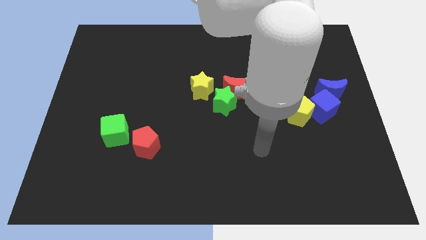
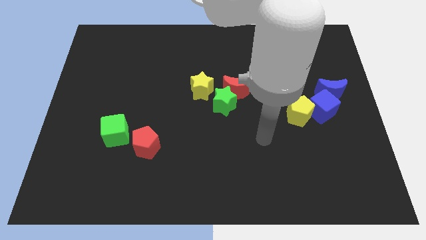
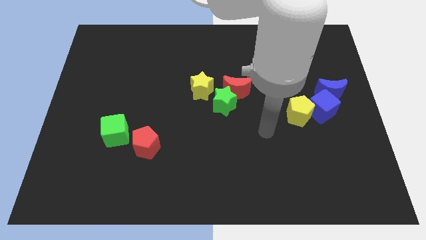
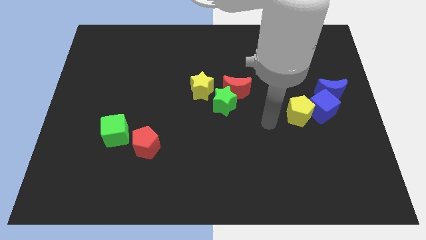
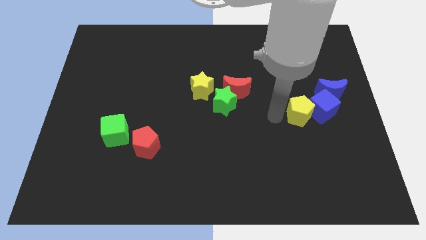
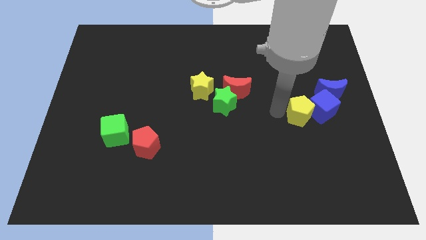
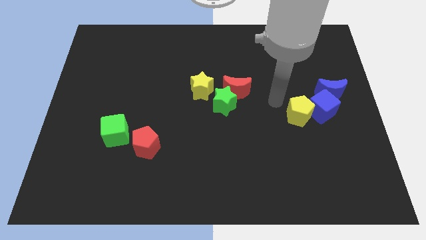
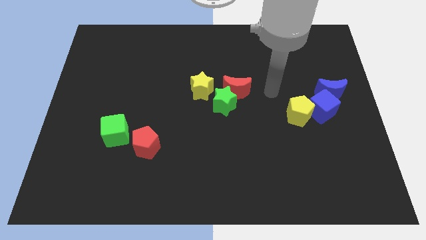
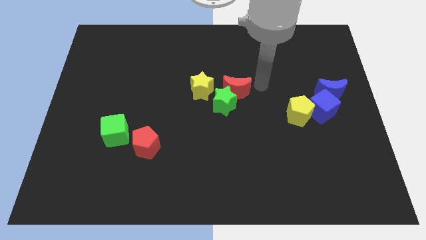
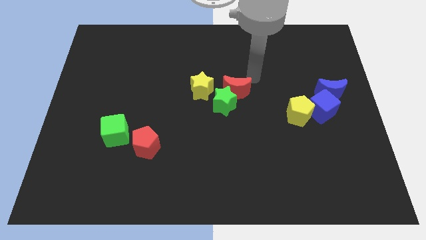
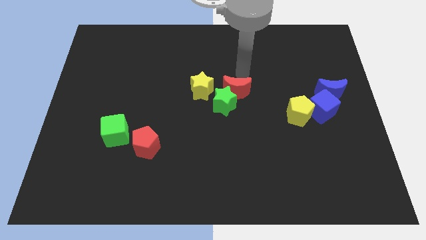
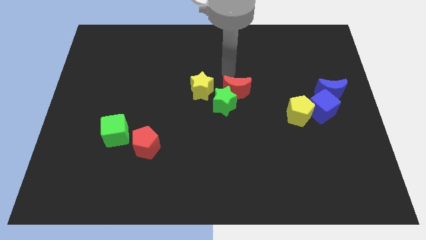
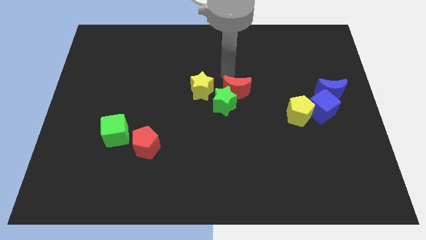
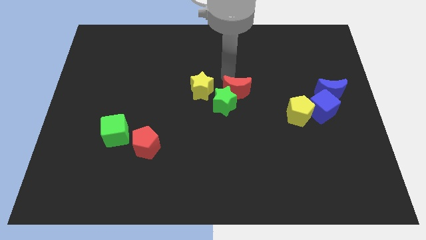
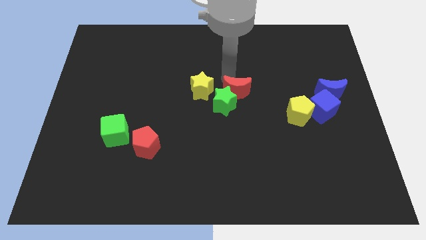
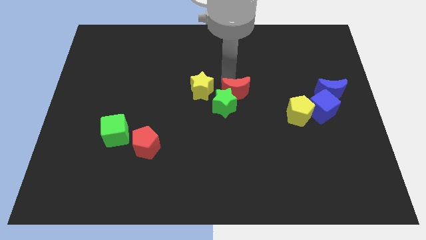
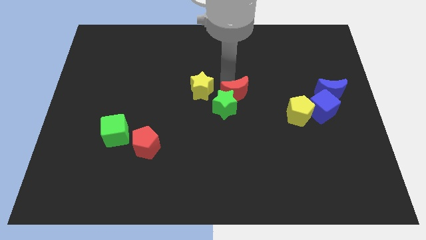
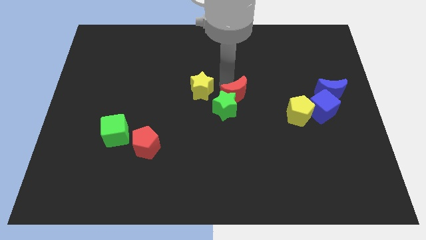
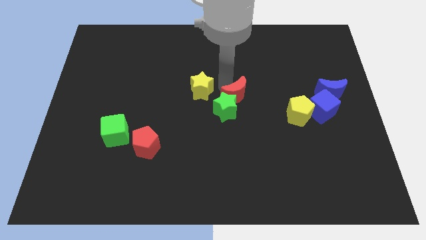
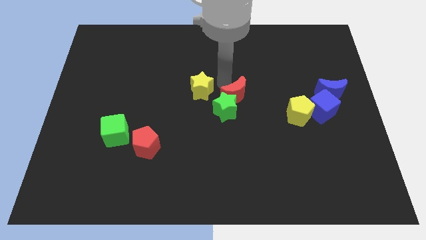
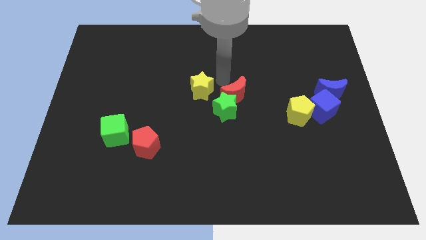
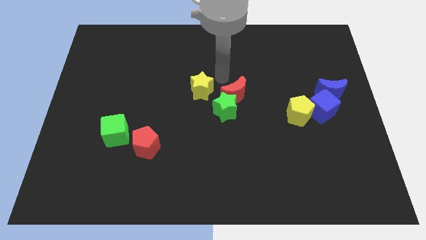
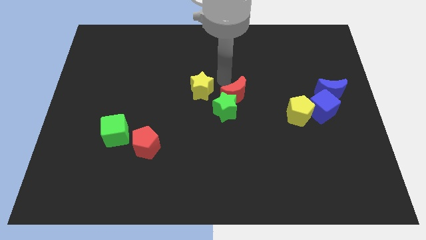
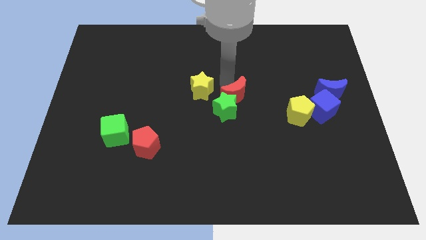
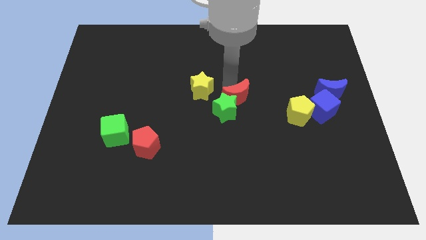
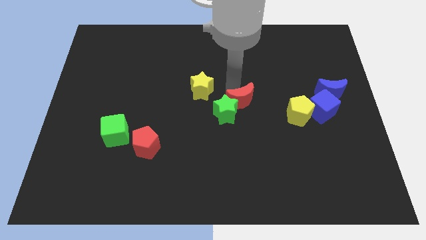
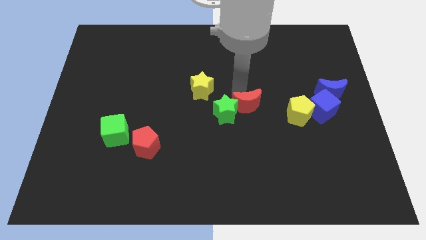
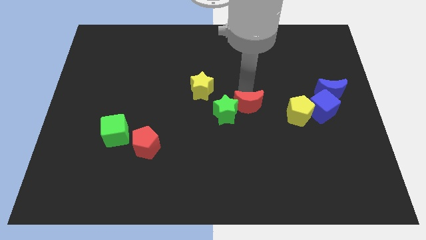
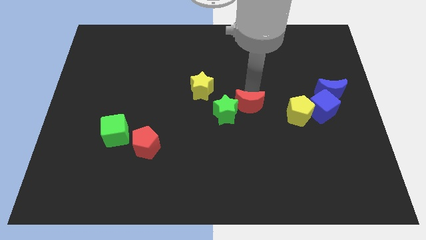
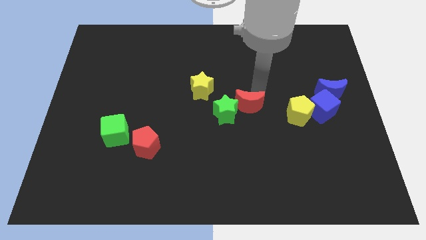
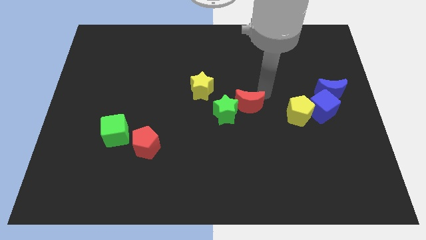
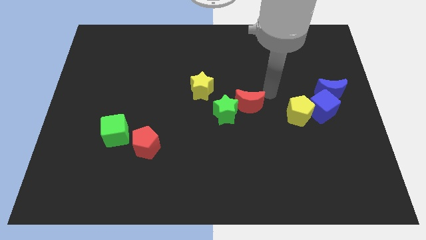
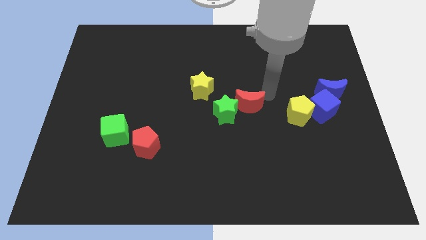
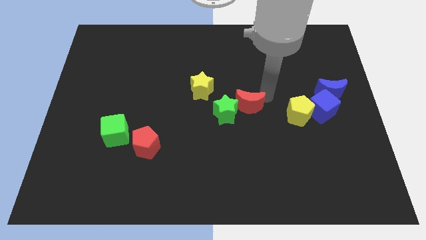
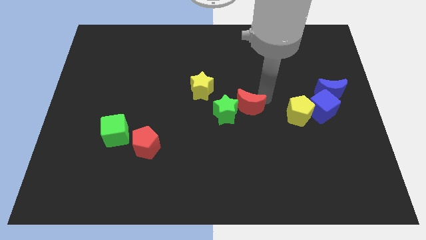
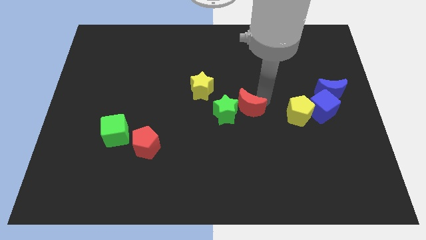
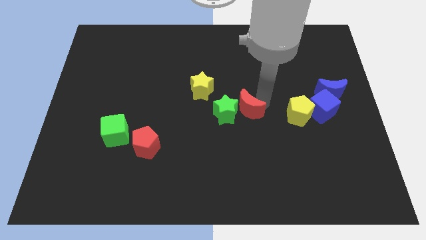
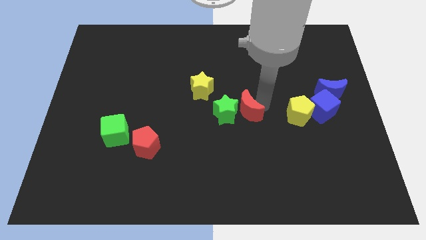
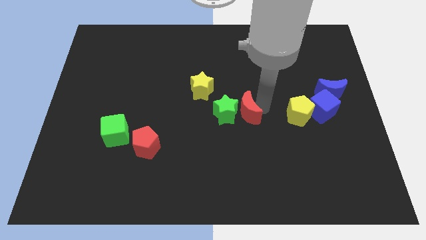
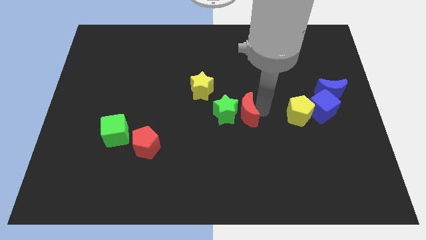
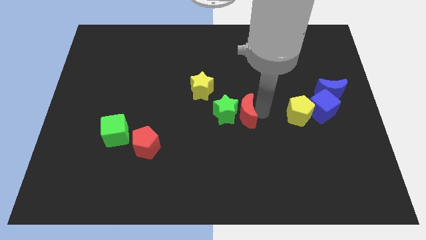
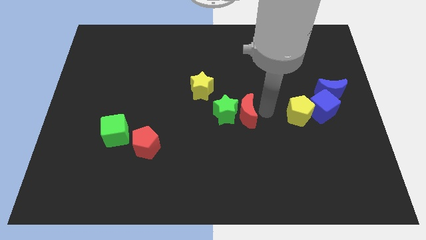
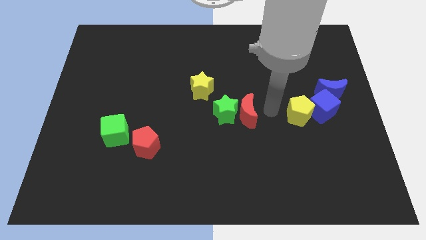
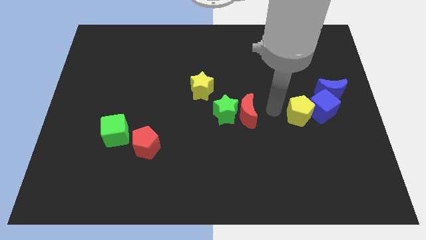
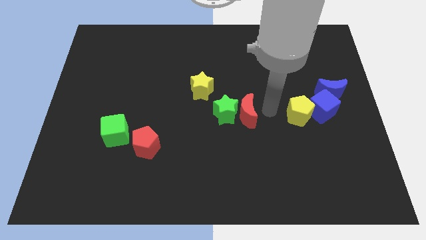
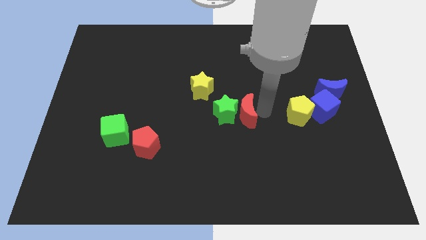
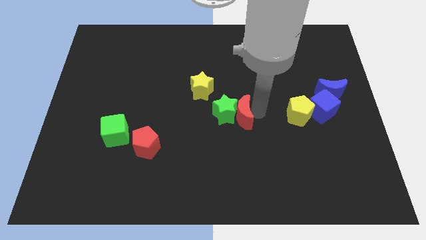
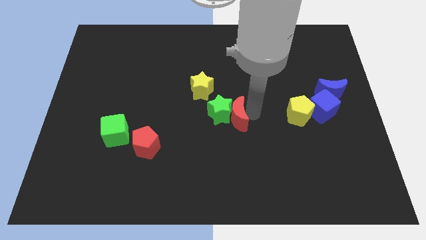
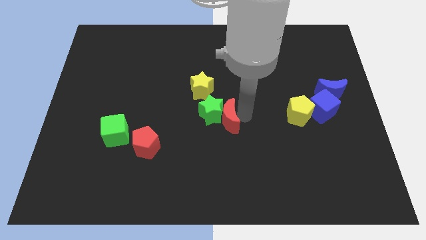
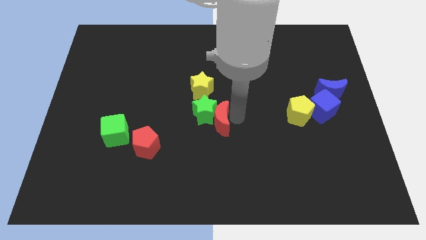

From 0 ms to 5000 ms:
put the red moon to the bottom side of the yellow star

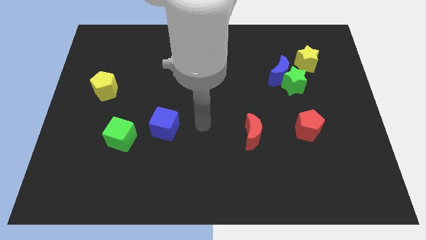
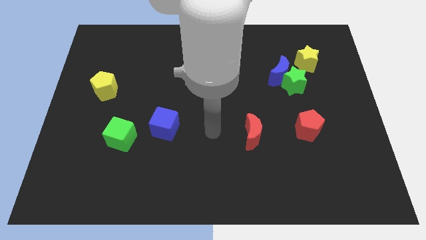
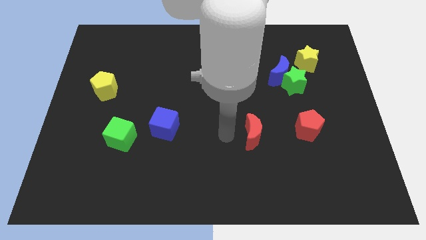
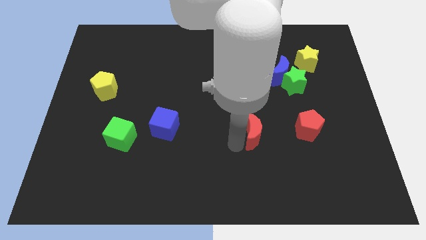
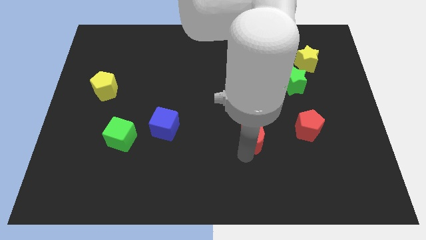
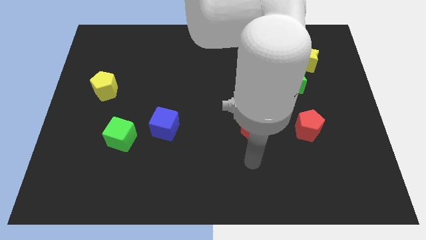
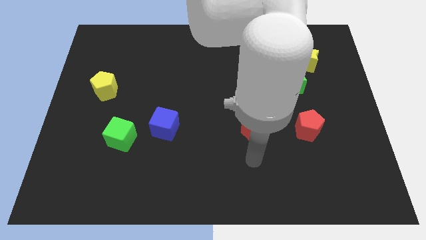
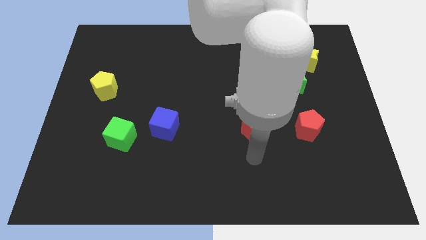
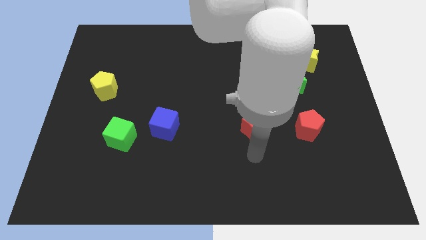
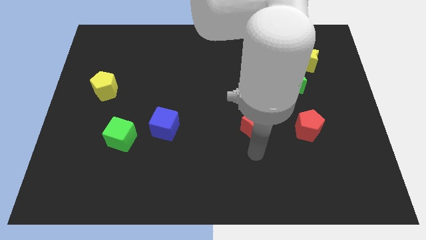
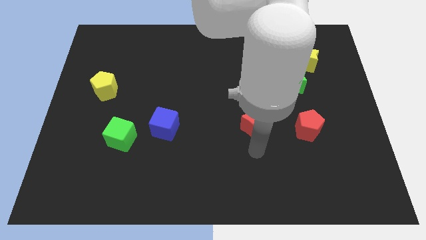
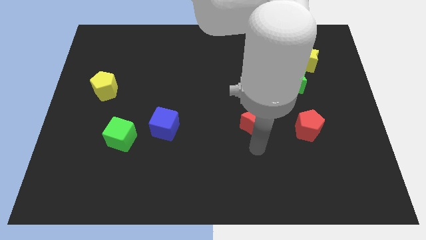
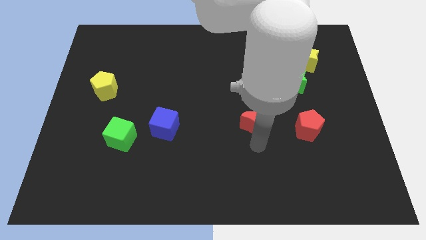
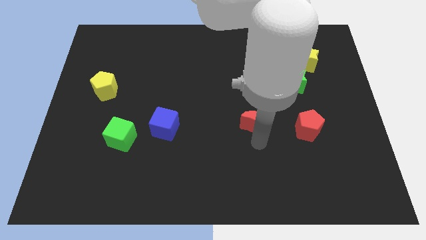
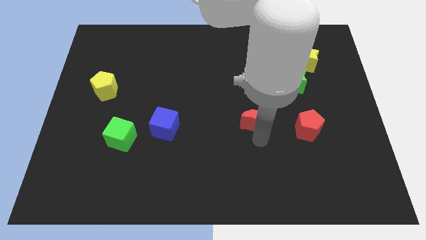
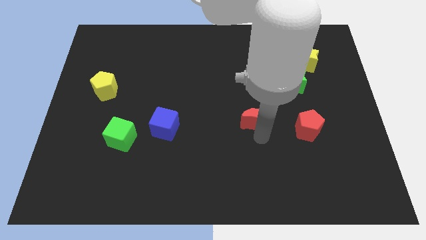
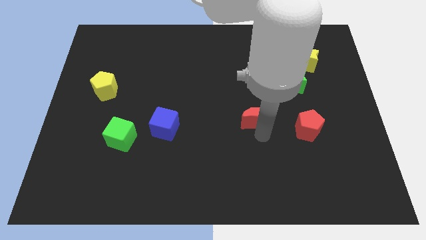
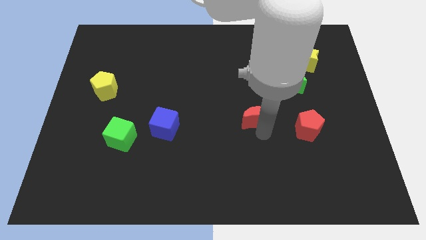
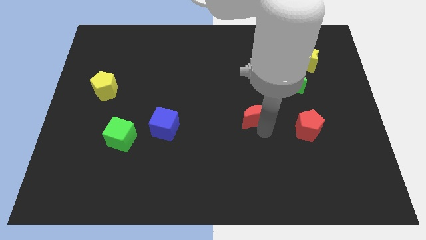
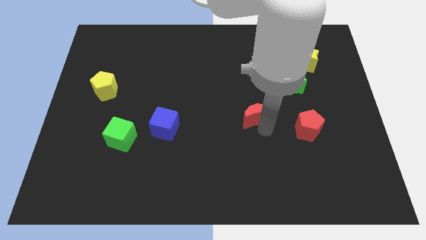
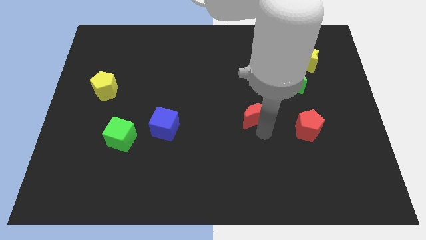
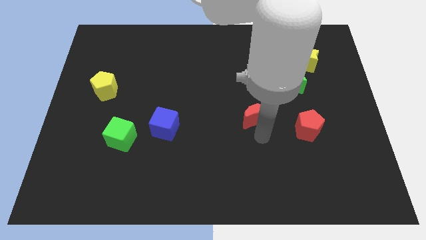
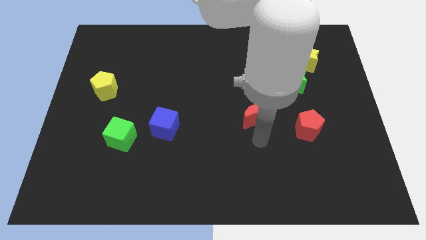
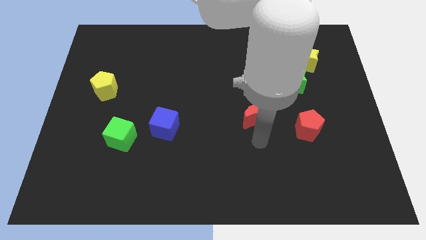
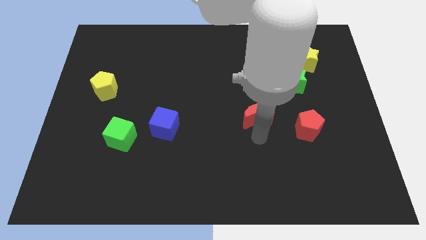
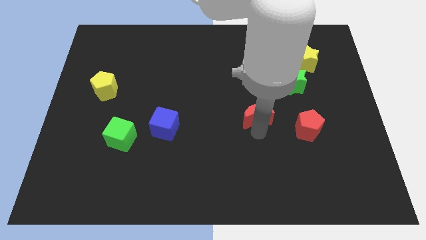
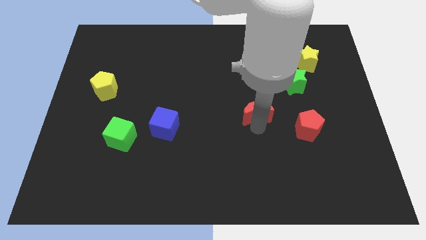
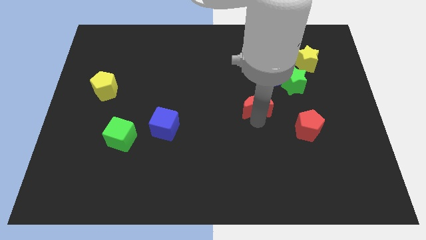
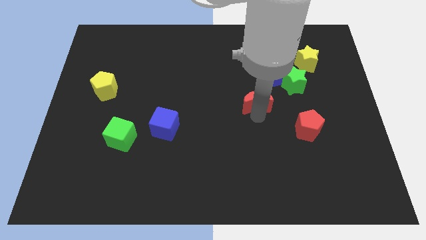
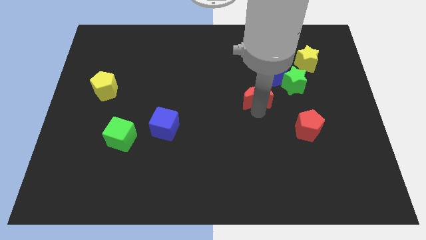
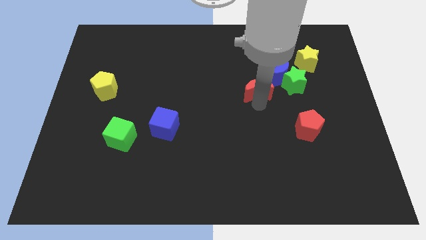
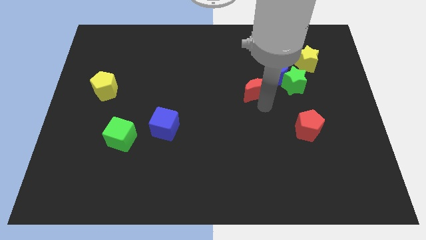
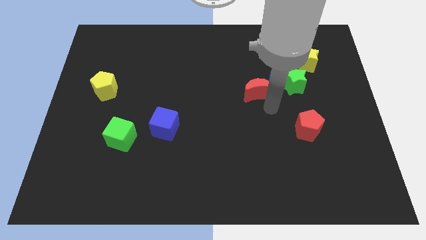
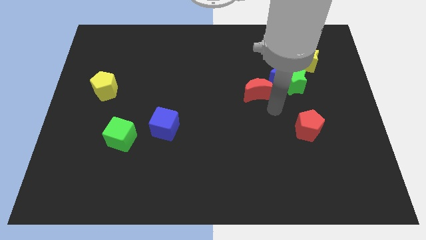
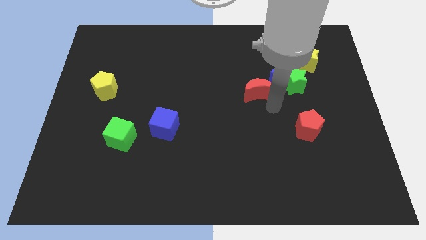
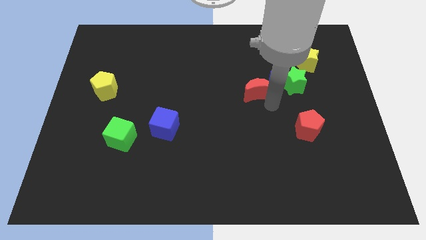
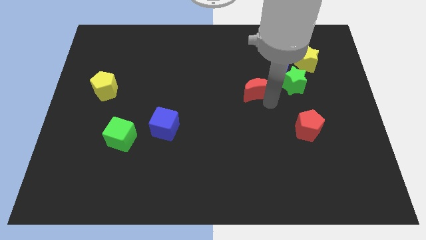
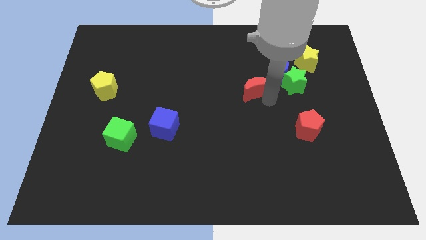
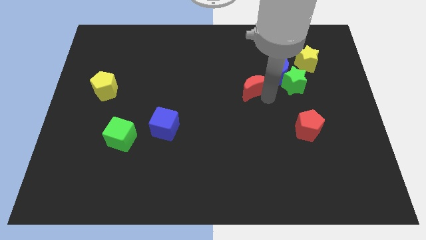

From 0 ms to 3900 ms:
slide the red moon to the left of the blue moon
